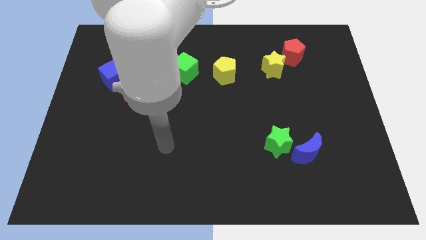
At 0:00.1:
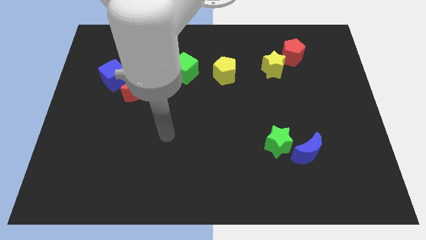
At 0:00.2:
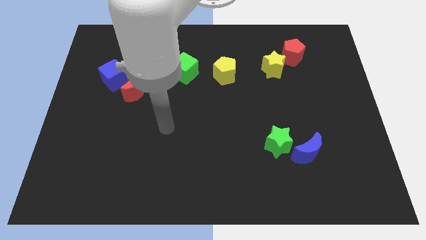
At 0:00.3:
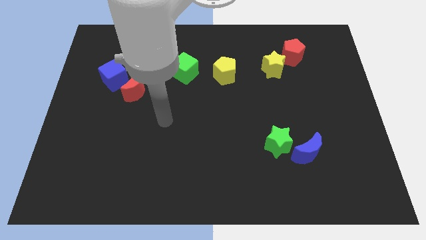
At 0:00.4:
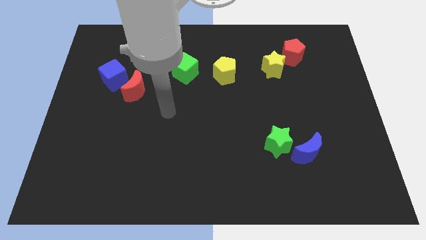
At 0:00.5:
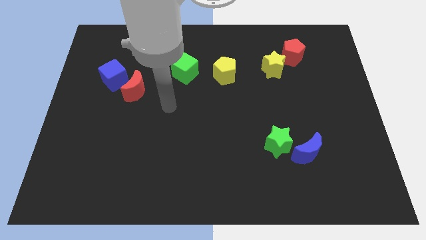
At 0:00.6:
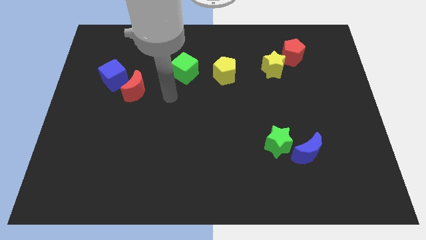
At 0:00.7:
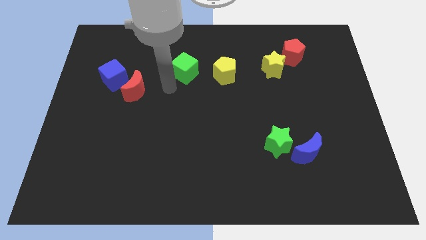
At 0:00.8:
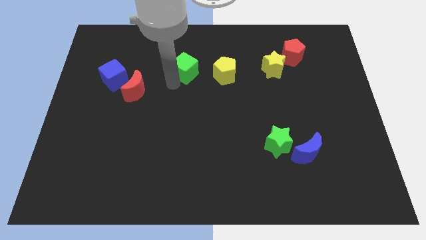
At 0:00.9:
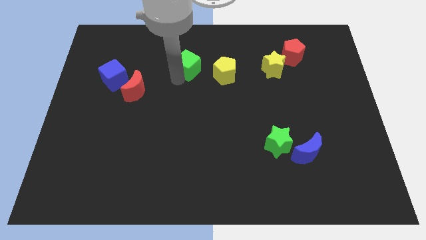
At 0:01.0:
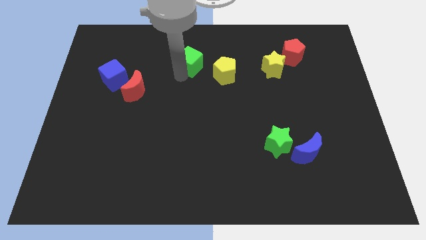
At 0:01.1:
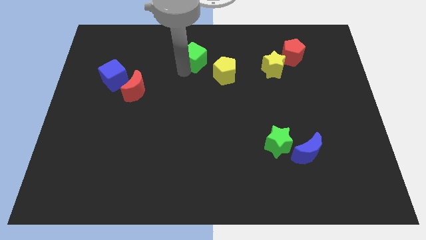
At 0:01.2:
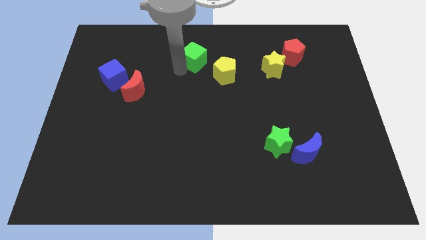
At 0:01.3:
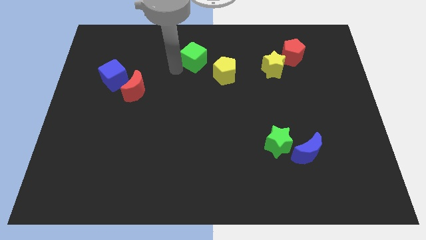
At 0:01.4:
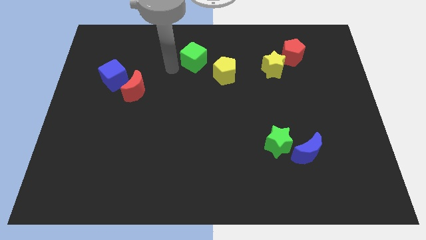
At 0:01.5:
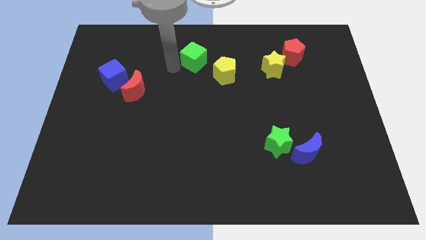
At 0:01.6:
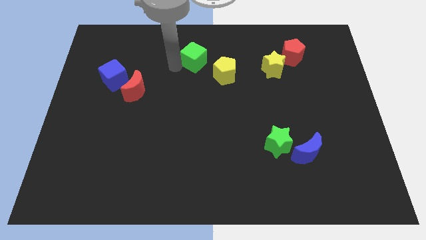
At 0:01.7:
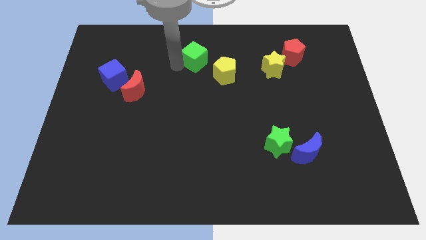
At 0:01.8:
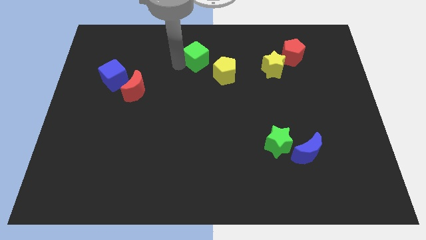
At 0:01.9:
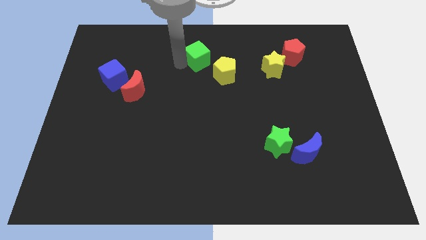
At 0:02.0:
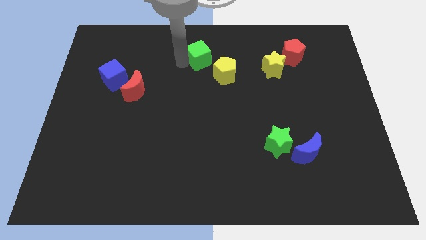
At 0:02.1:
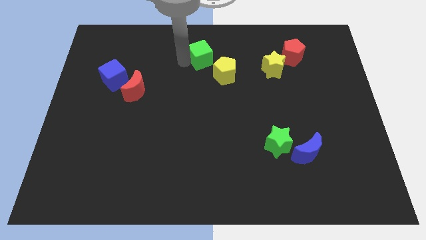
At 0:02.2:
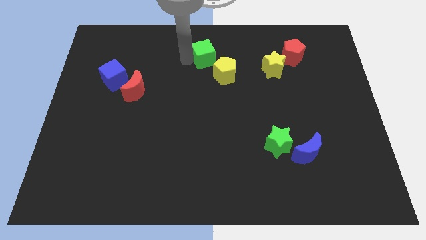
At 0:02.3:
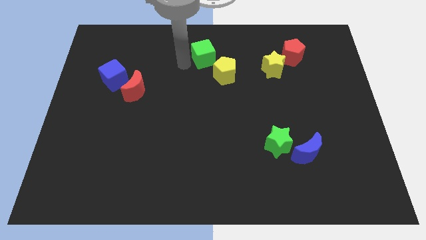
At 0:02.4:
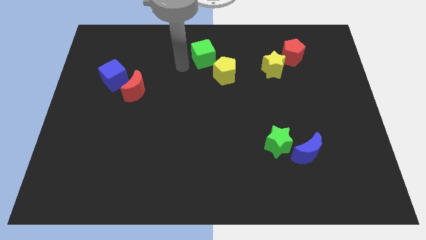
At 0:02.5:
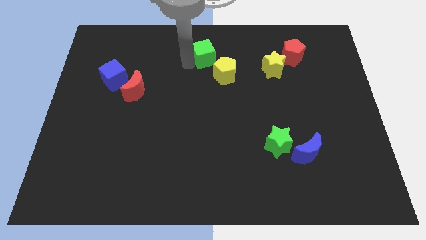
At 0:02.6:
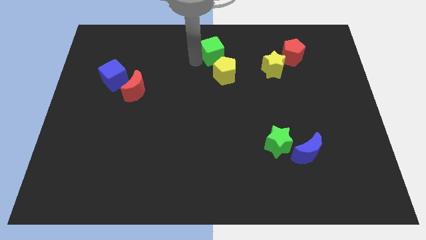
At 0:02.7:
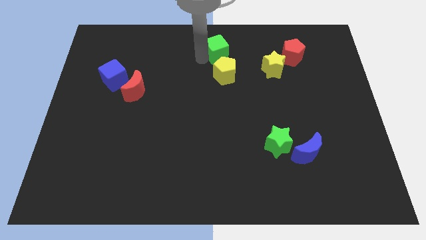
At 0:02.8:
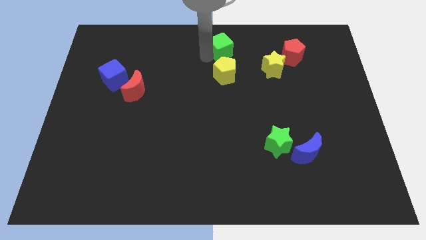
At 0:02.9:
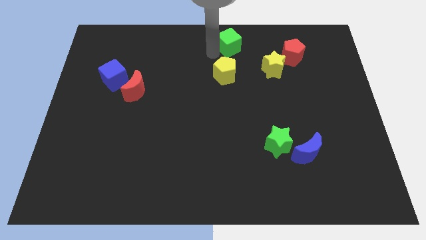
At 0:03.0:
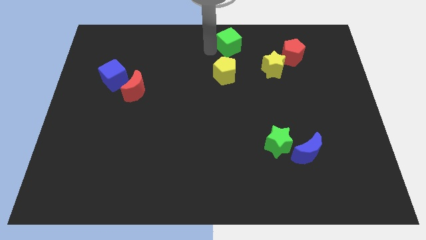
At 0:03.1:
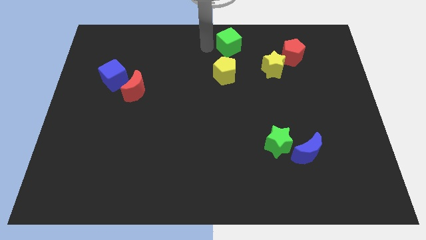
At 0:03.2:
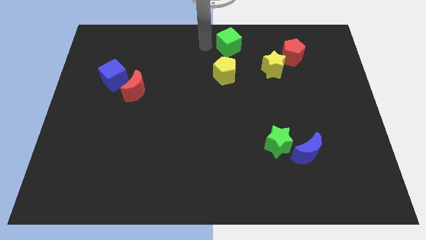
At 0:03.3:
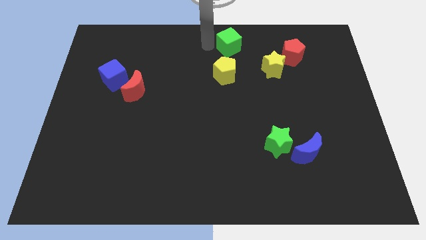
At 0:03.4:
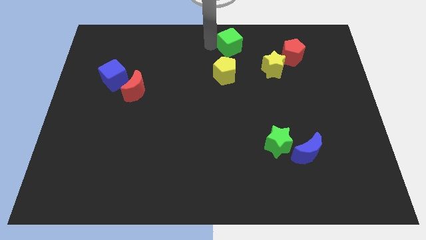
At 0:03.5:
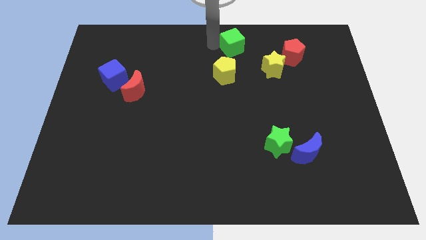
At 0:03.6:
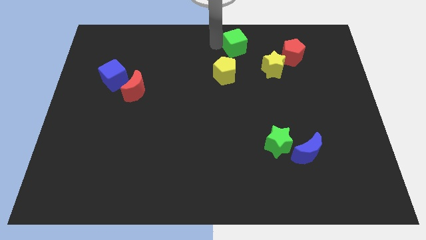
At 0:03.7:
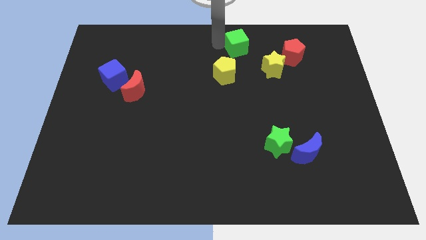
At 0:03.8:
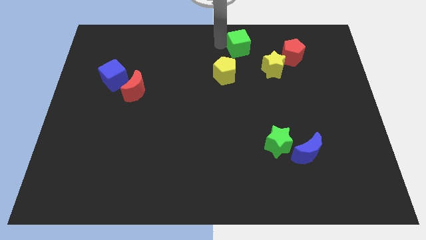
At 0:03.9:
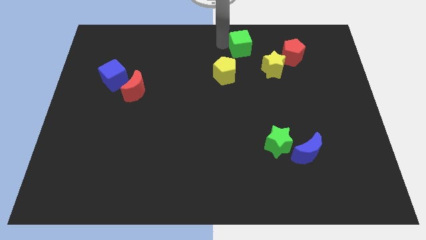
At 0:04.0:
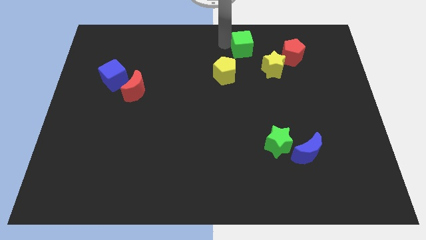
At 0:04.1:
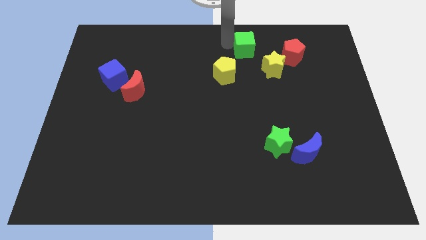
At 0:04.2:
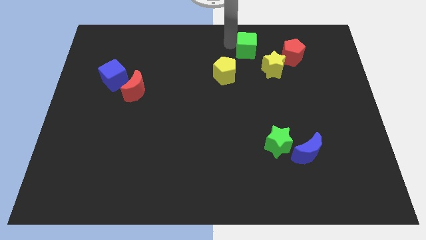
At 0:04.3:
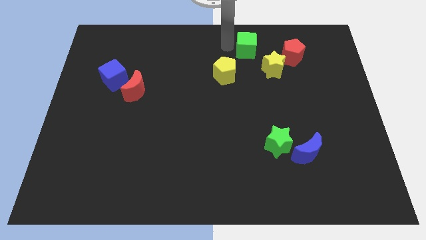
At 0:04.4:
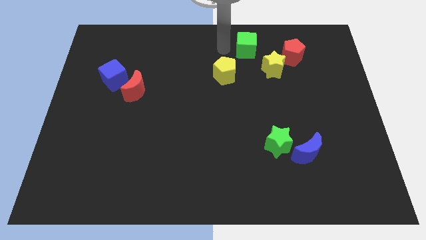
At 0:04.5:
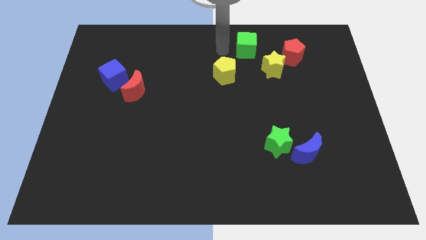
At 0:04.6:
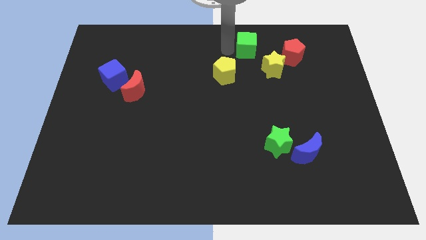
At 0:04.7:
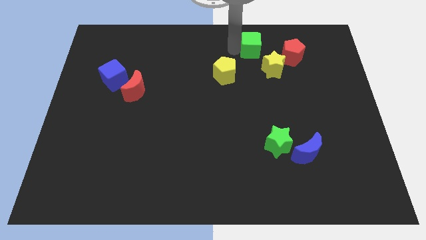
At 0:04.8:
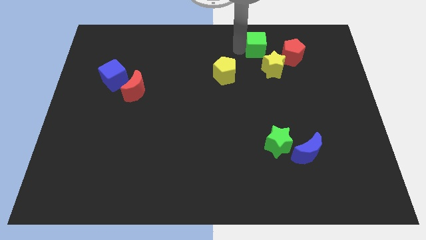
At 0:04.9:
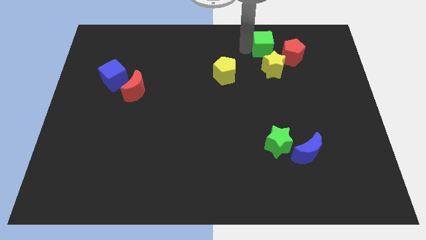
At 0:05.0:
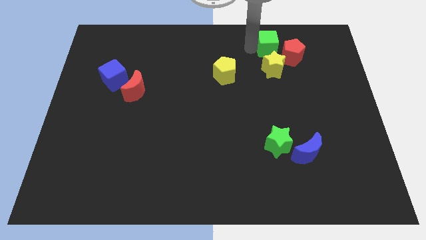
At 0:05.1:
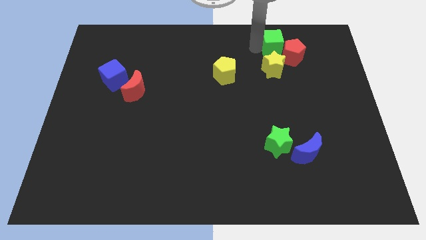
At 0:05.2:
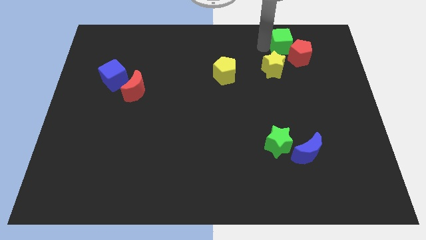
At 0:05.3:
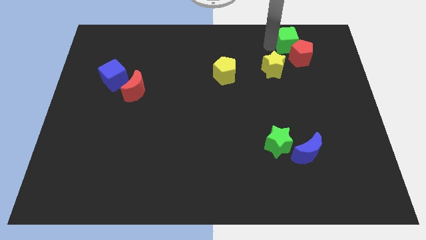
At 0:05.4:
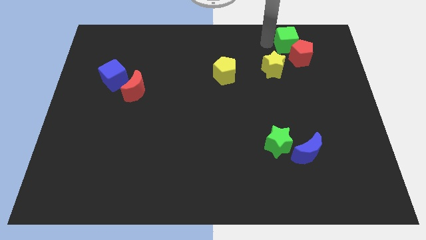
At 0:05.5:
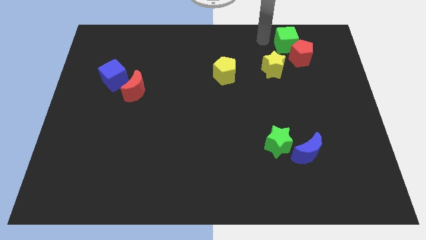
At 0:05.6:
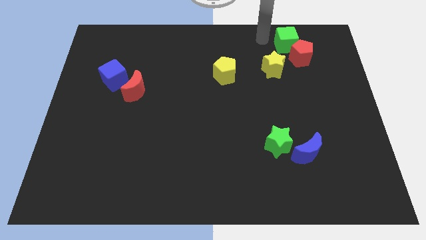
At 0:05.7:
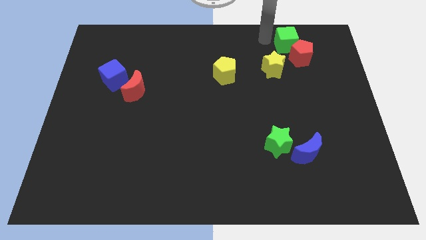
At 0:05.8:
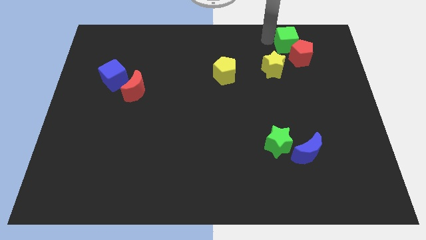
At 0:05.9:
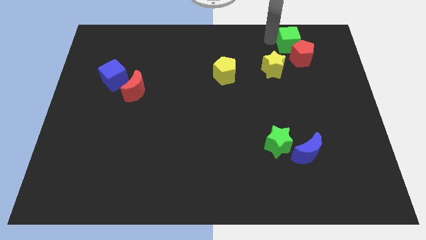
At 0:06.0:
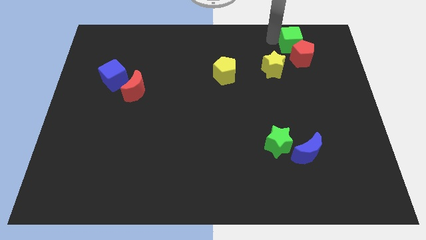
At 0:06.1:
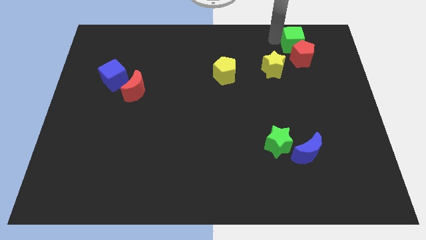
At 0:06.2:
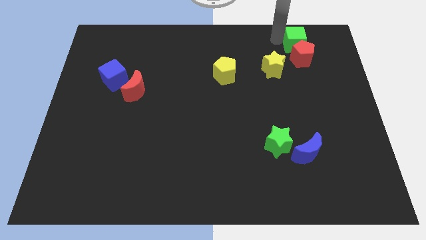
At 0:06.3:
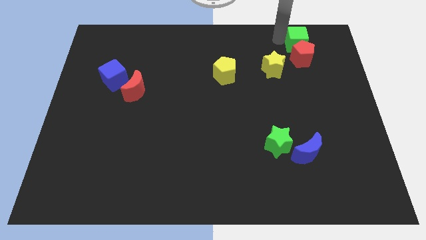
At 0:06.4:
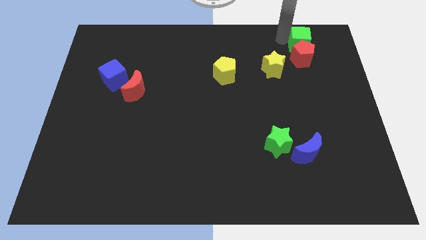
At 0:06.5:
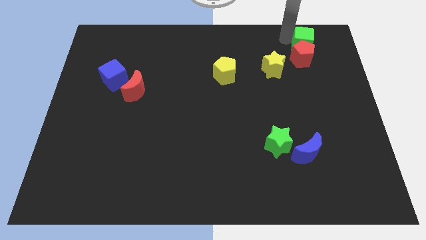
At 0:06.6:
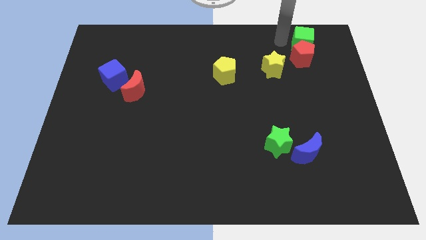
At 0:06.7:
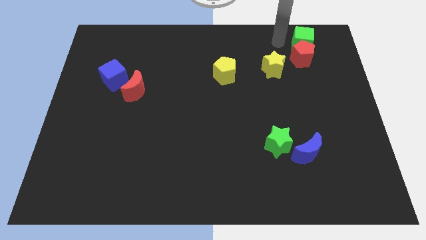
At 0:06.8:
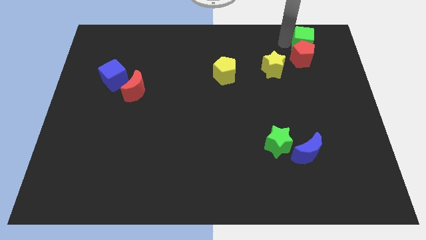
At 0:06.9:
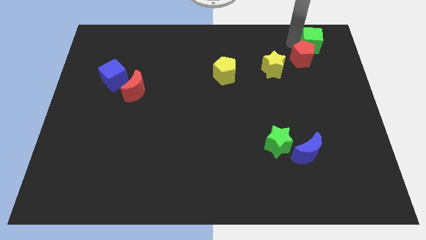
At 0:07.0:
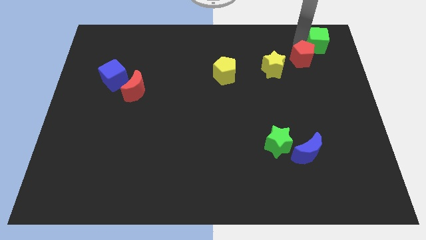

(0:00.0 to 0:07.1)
push the green cube to the top right of the board
